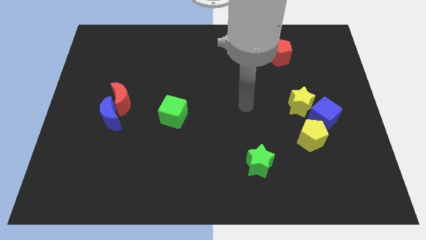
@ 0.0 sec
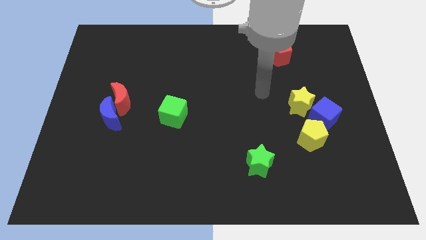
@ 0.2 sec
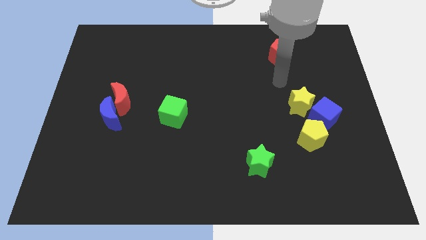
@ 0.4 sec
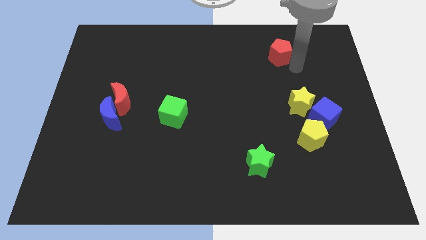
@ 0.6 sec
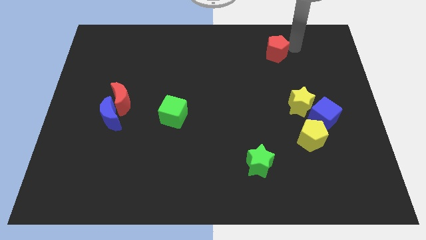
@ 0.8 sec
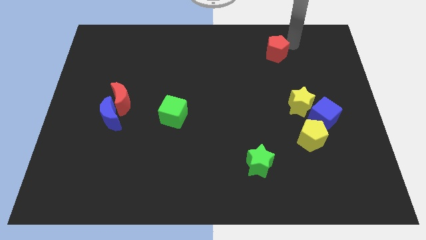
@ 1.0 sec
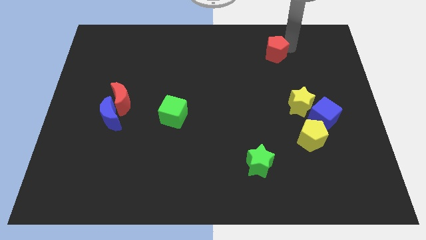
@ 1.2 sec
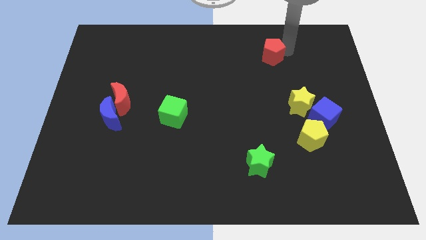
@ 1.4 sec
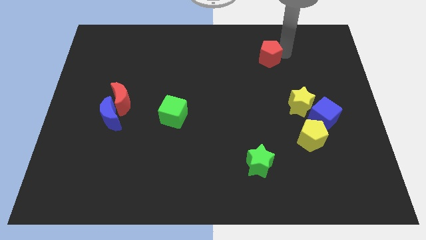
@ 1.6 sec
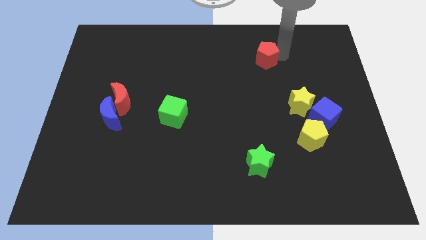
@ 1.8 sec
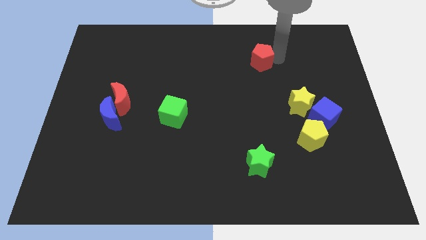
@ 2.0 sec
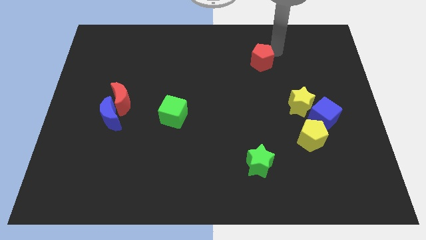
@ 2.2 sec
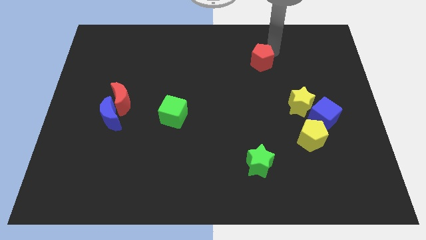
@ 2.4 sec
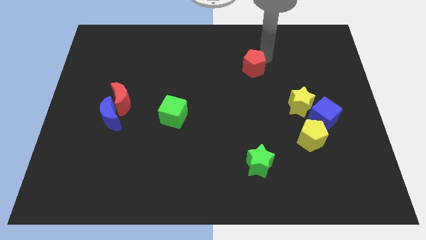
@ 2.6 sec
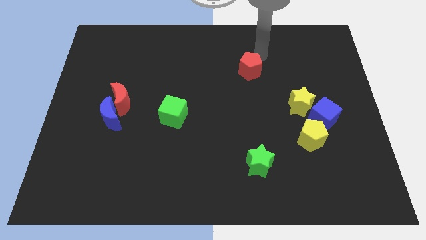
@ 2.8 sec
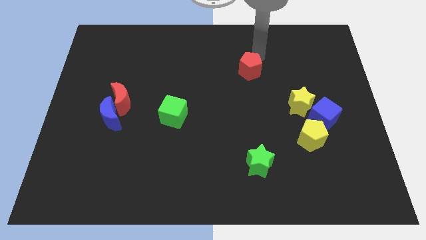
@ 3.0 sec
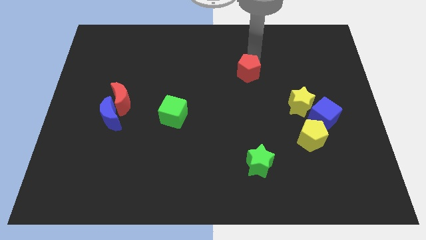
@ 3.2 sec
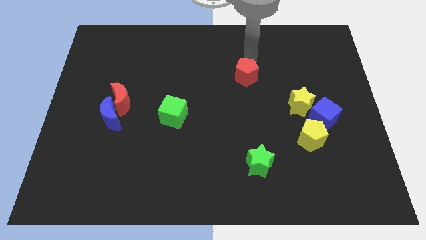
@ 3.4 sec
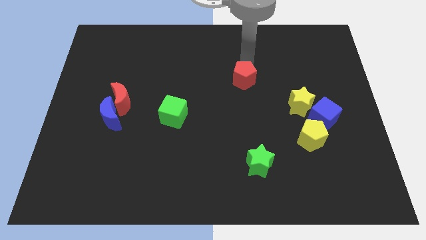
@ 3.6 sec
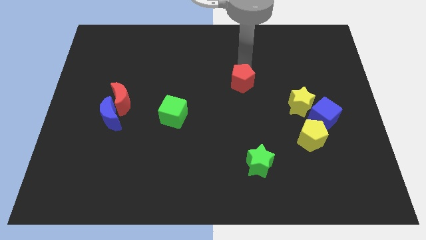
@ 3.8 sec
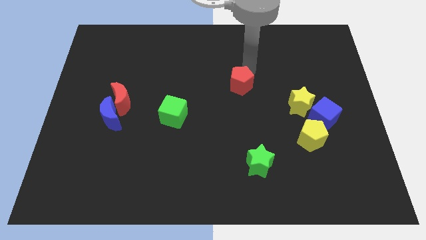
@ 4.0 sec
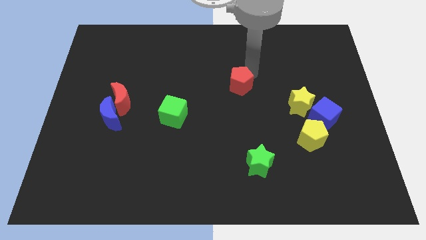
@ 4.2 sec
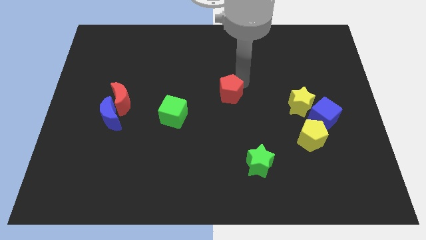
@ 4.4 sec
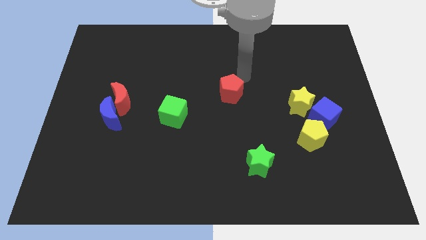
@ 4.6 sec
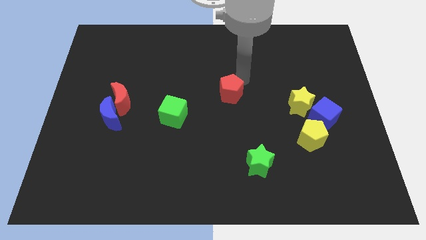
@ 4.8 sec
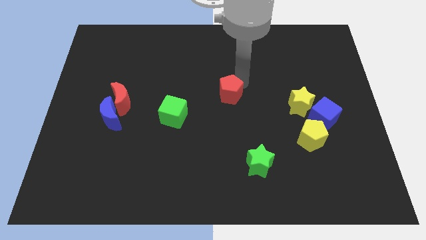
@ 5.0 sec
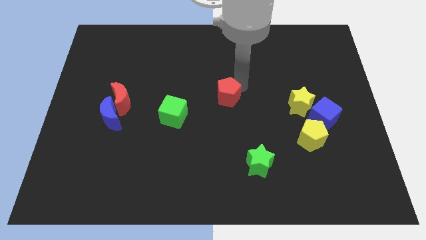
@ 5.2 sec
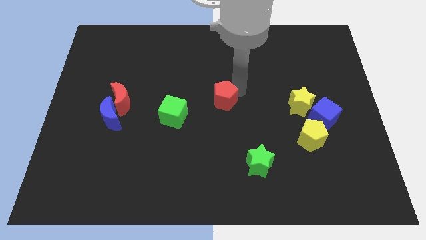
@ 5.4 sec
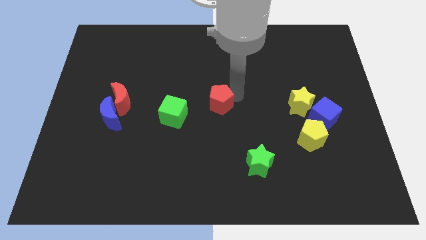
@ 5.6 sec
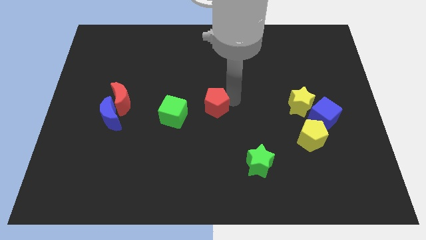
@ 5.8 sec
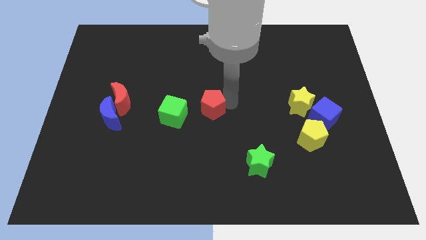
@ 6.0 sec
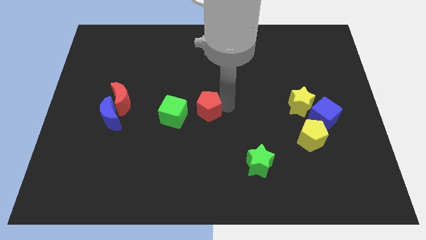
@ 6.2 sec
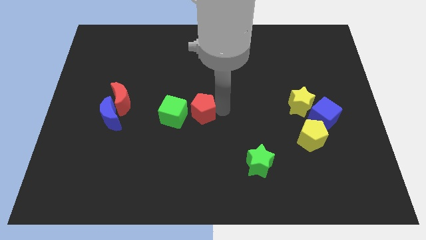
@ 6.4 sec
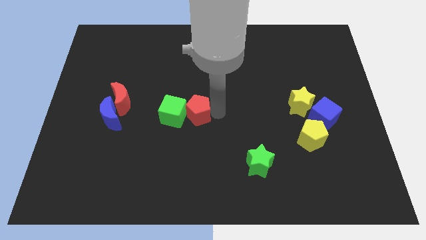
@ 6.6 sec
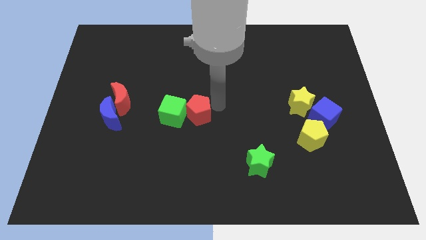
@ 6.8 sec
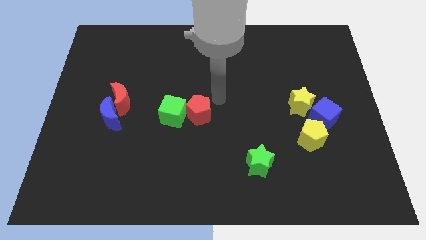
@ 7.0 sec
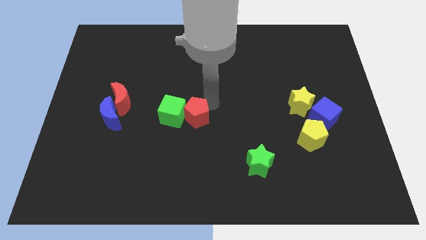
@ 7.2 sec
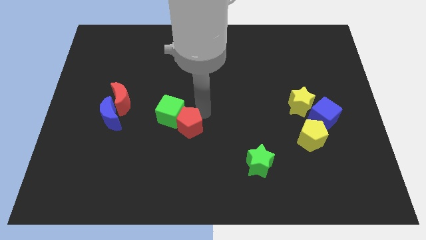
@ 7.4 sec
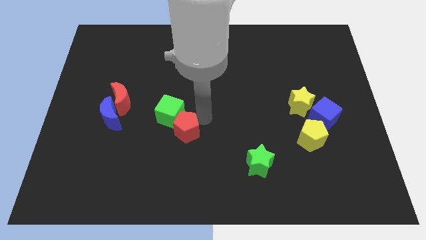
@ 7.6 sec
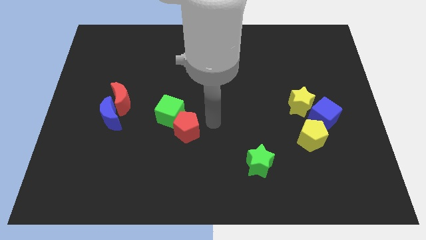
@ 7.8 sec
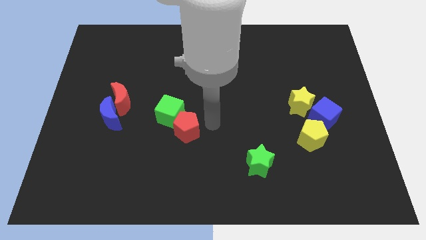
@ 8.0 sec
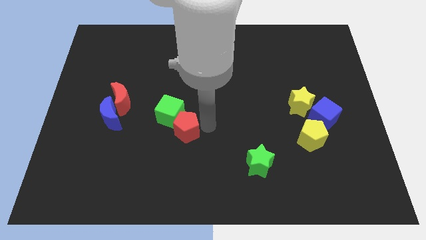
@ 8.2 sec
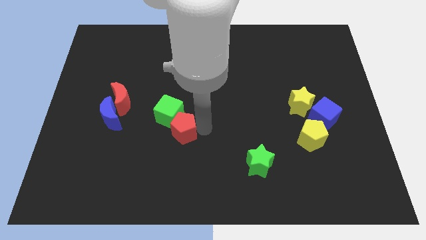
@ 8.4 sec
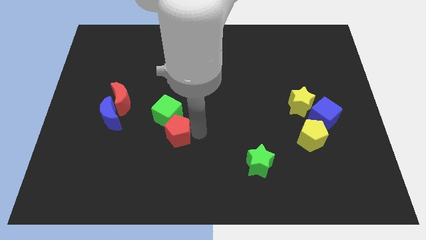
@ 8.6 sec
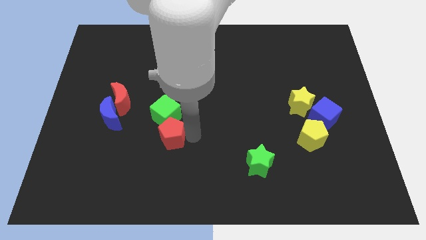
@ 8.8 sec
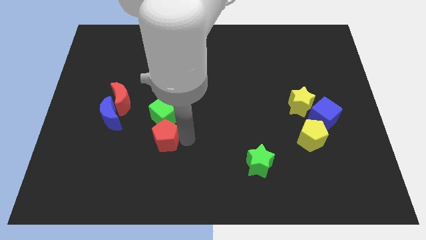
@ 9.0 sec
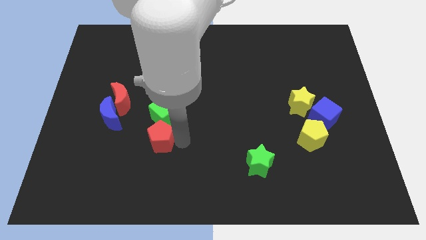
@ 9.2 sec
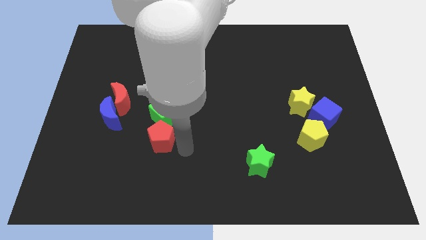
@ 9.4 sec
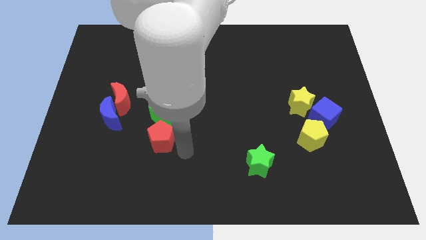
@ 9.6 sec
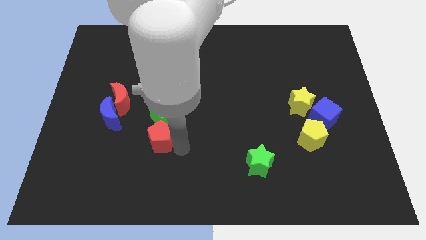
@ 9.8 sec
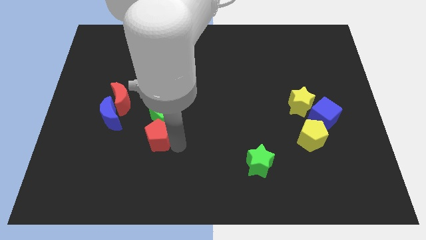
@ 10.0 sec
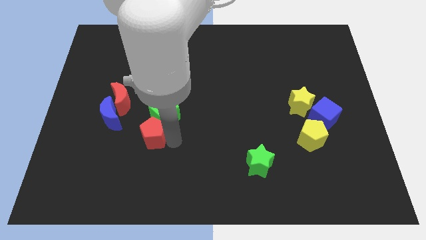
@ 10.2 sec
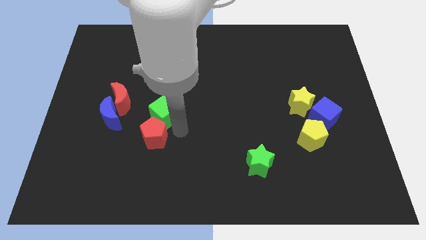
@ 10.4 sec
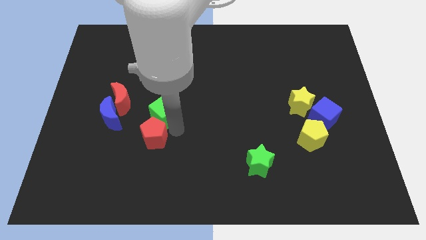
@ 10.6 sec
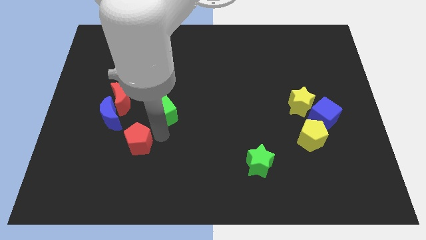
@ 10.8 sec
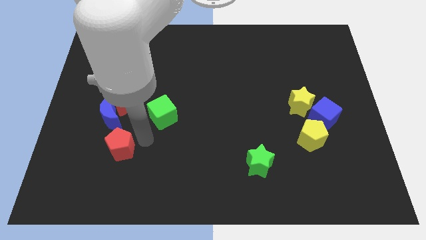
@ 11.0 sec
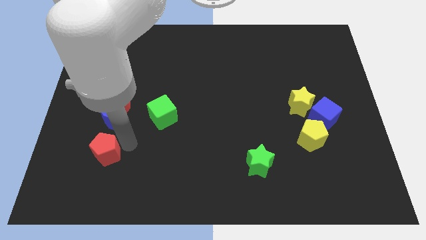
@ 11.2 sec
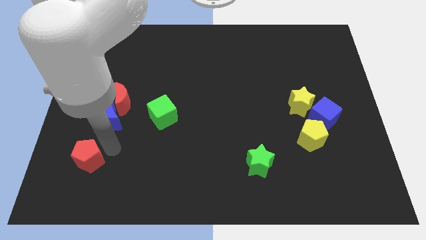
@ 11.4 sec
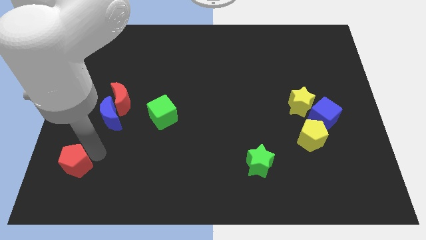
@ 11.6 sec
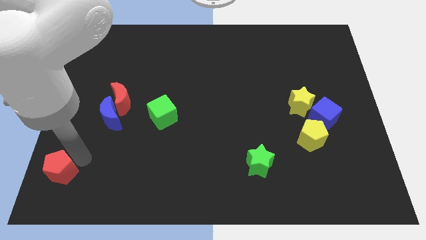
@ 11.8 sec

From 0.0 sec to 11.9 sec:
push the red pentagon to the bottom left

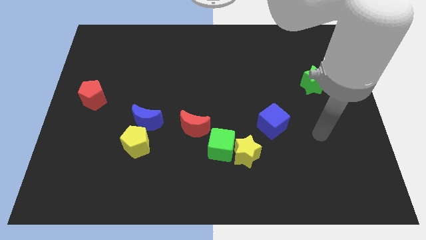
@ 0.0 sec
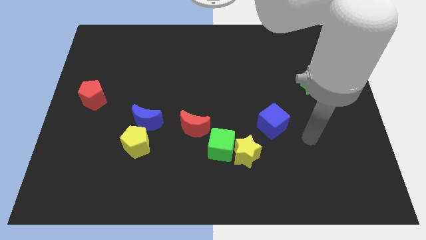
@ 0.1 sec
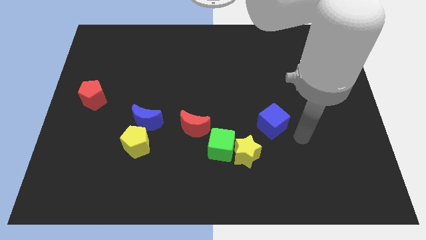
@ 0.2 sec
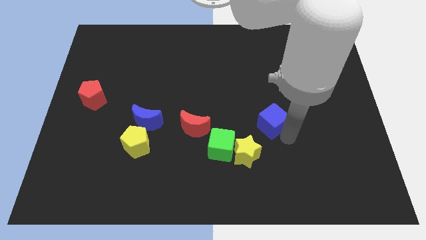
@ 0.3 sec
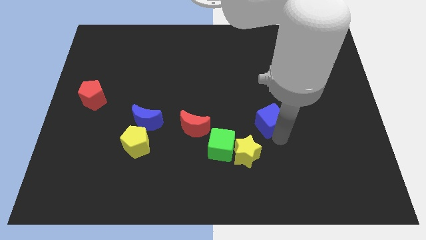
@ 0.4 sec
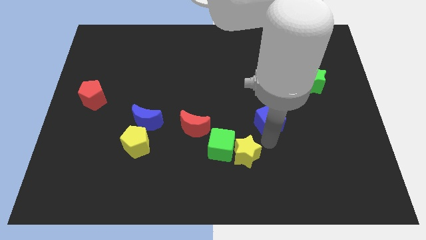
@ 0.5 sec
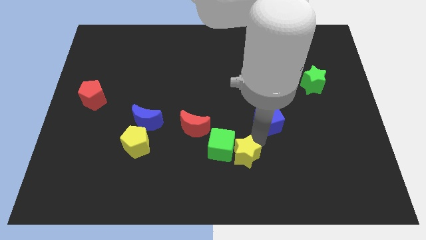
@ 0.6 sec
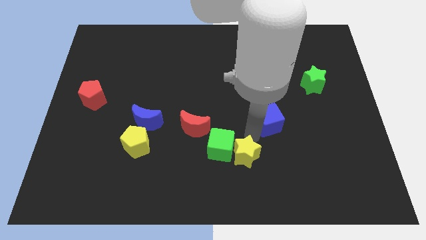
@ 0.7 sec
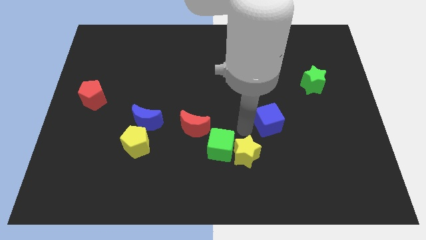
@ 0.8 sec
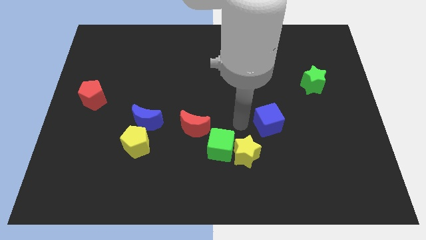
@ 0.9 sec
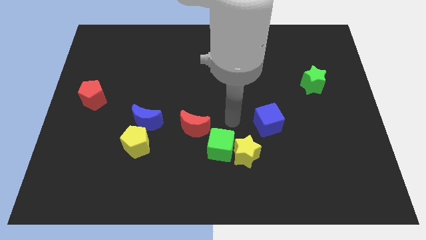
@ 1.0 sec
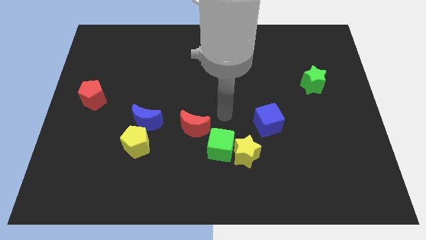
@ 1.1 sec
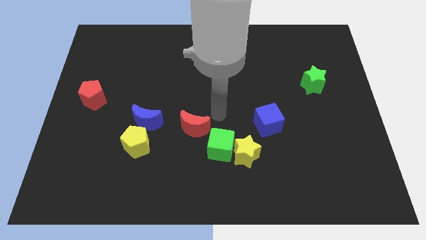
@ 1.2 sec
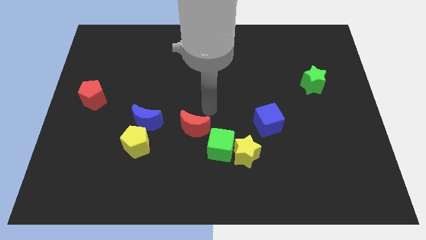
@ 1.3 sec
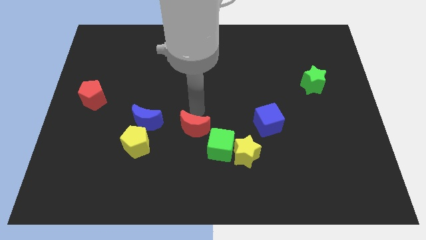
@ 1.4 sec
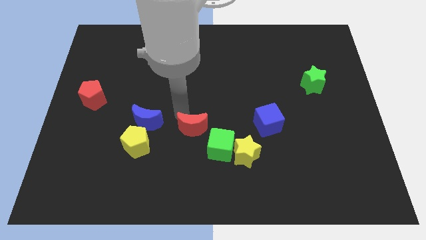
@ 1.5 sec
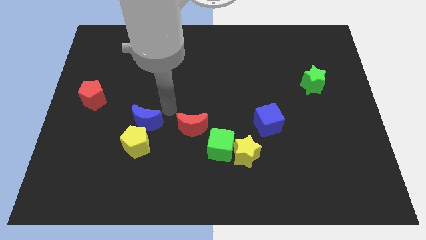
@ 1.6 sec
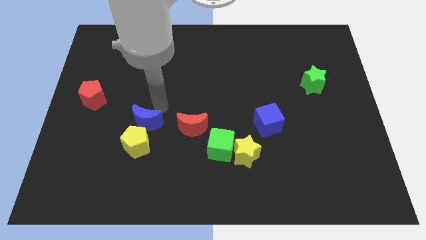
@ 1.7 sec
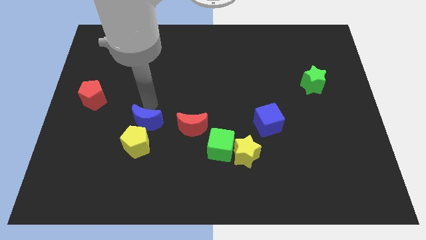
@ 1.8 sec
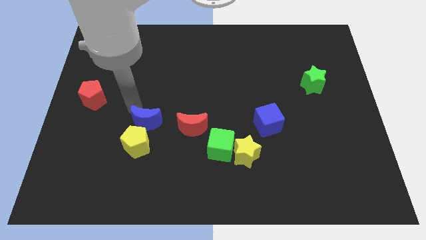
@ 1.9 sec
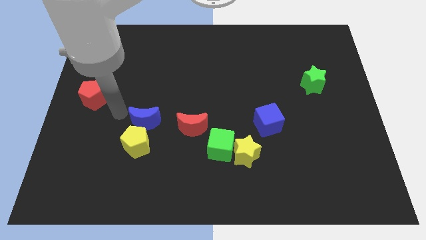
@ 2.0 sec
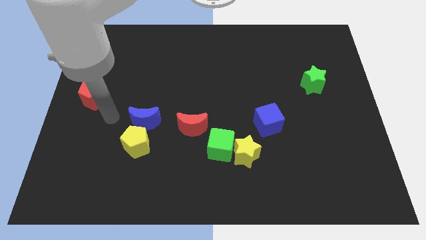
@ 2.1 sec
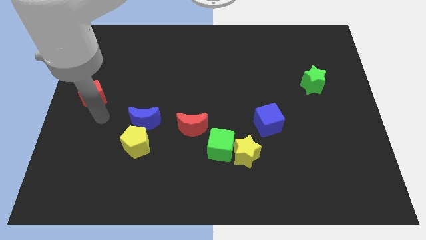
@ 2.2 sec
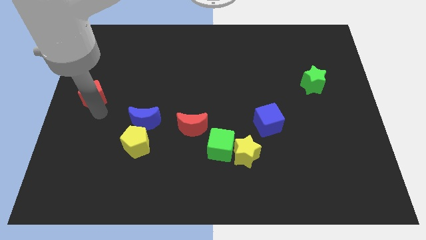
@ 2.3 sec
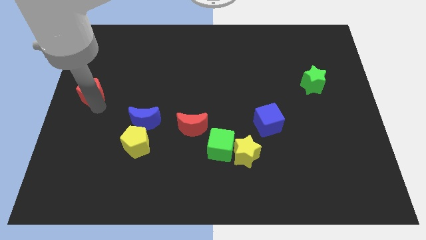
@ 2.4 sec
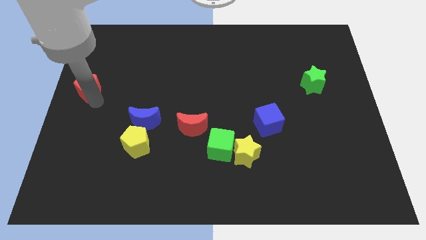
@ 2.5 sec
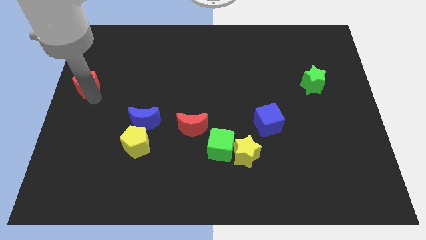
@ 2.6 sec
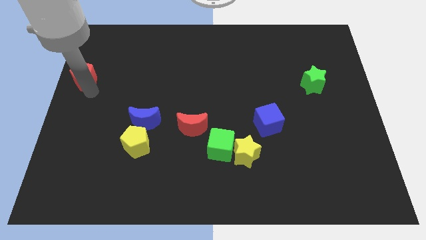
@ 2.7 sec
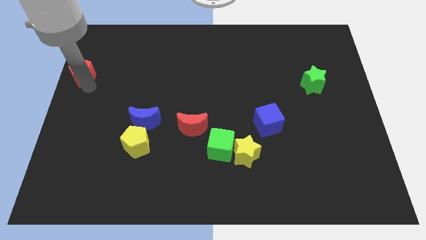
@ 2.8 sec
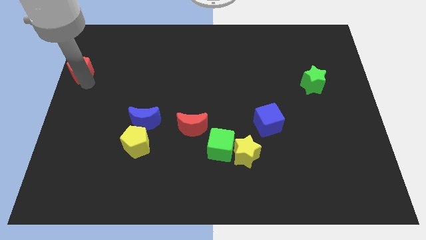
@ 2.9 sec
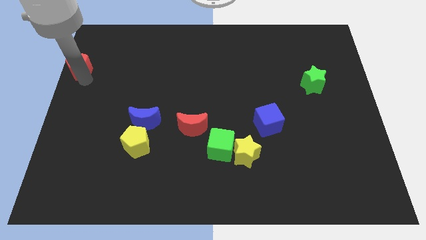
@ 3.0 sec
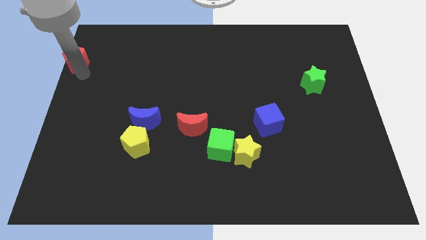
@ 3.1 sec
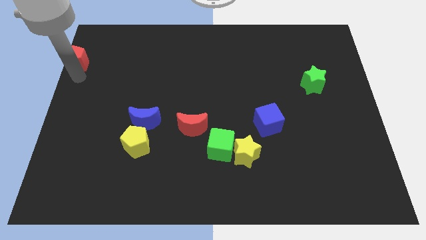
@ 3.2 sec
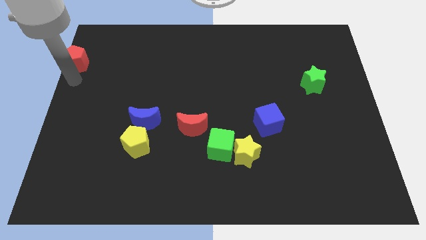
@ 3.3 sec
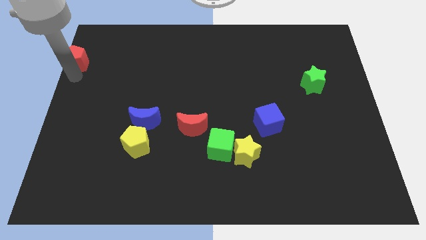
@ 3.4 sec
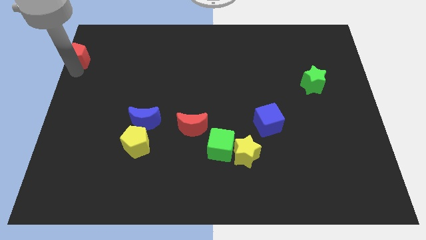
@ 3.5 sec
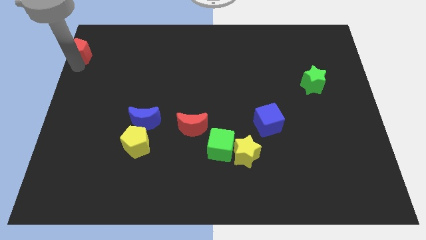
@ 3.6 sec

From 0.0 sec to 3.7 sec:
push the red pentagon to the top left of the board
